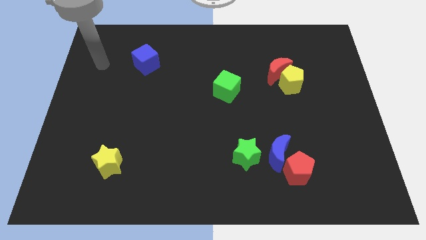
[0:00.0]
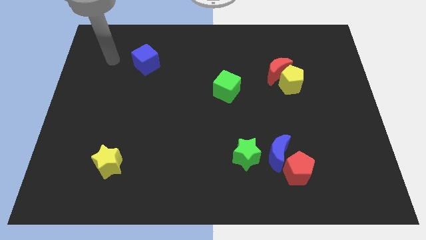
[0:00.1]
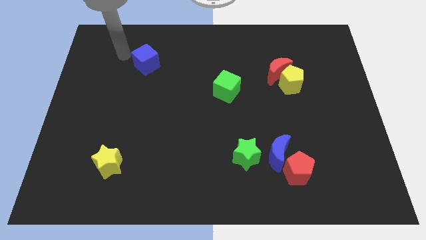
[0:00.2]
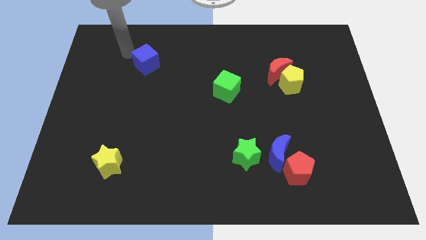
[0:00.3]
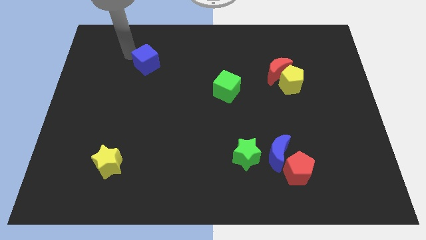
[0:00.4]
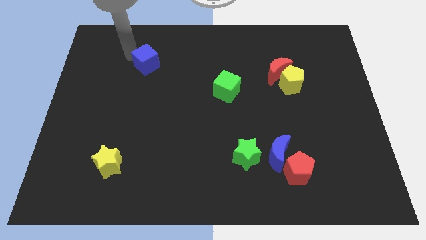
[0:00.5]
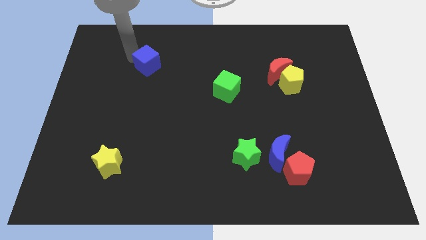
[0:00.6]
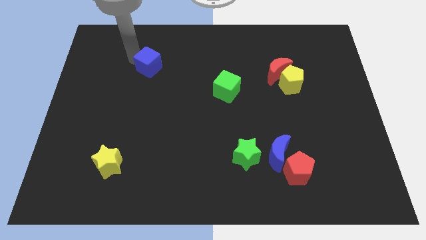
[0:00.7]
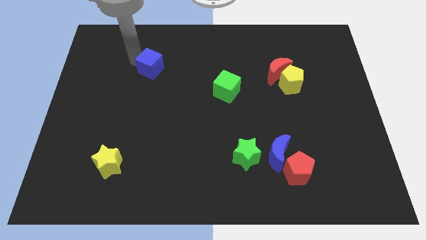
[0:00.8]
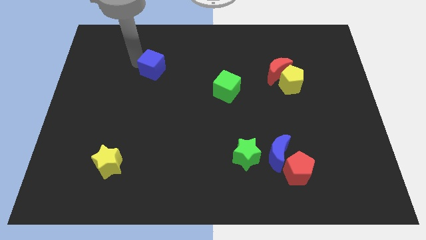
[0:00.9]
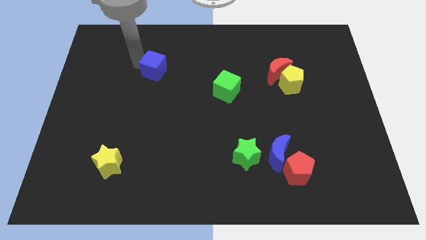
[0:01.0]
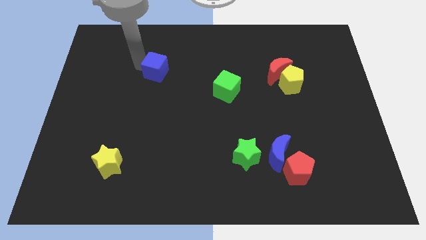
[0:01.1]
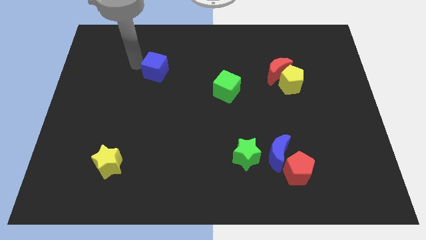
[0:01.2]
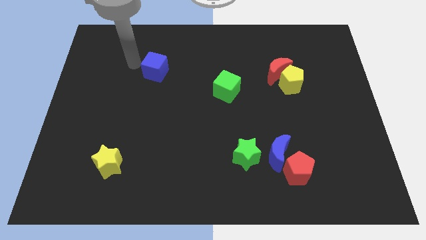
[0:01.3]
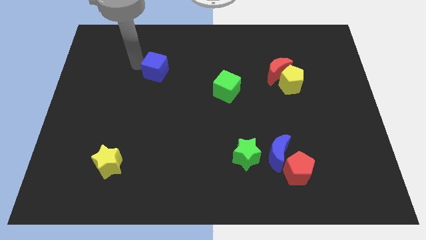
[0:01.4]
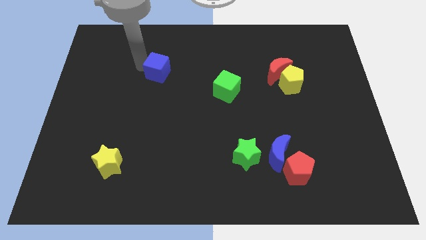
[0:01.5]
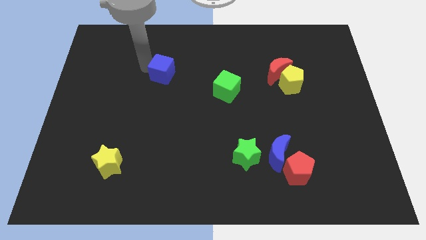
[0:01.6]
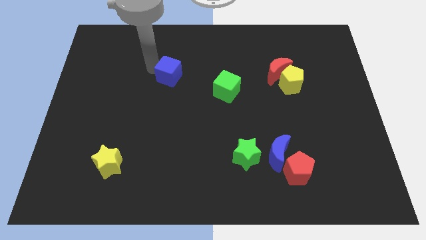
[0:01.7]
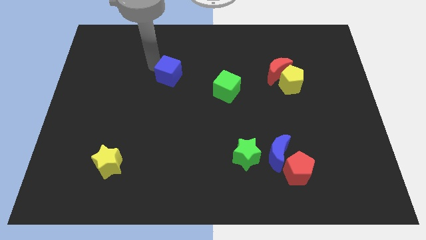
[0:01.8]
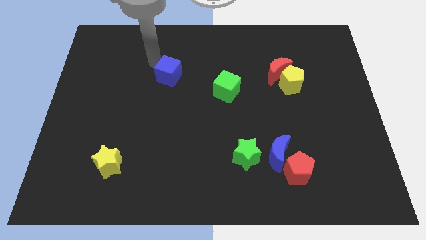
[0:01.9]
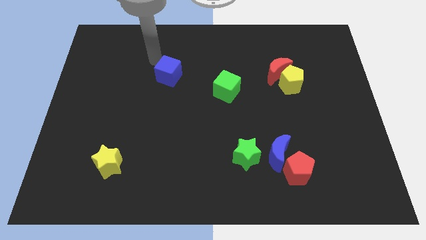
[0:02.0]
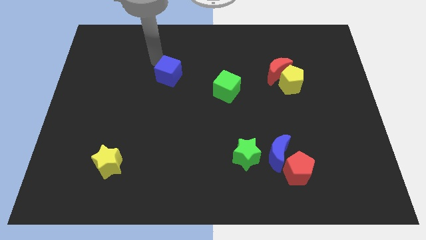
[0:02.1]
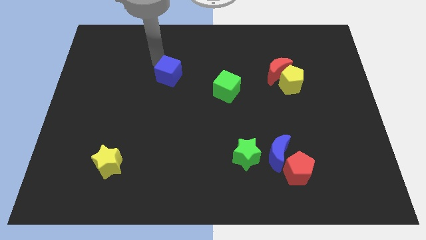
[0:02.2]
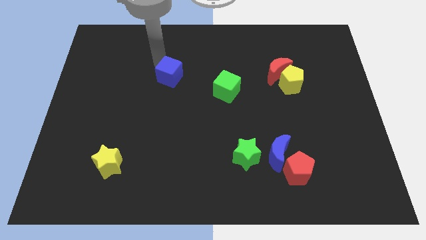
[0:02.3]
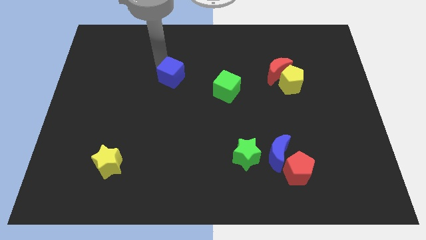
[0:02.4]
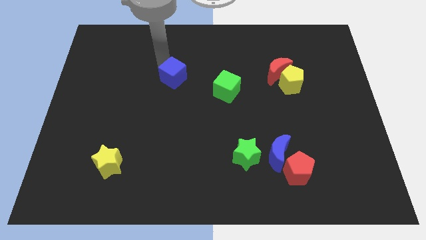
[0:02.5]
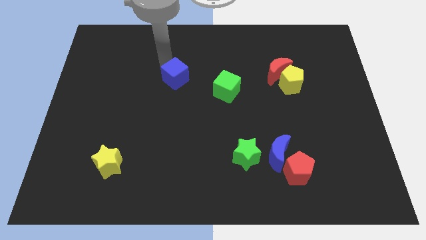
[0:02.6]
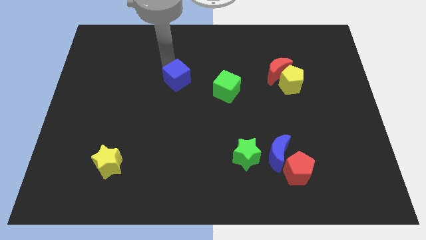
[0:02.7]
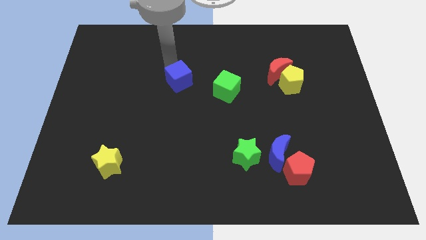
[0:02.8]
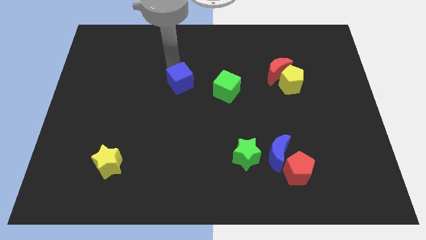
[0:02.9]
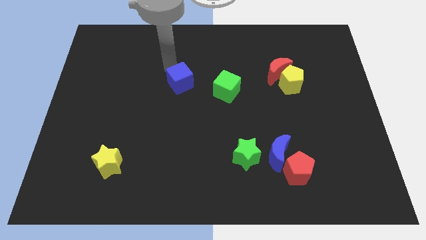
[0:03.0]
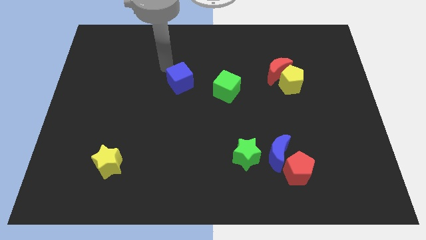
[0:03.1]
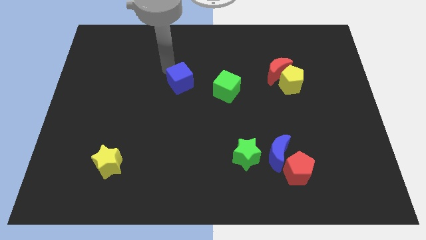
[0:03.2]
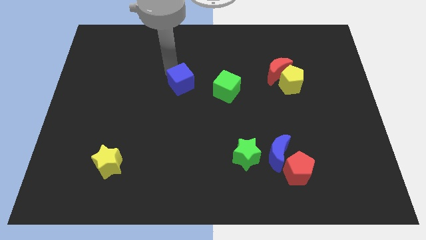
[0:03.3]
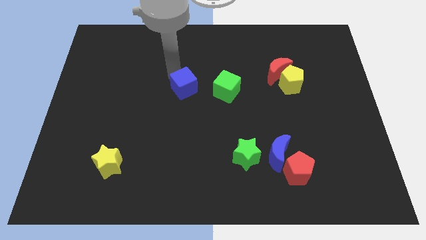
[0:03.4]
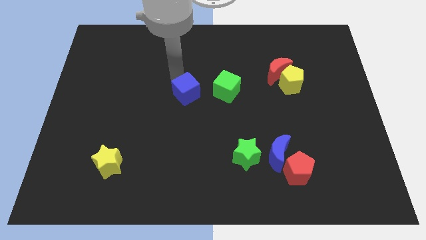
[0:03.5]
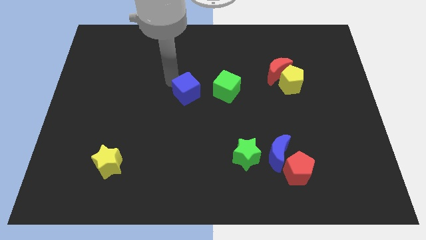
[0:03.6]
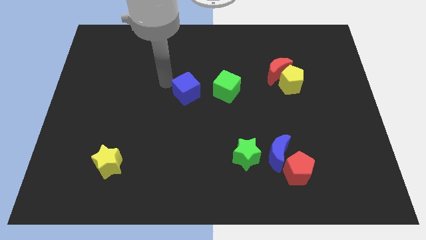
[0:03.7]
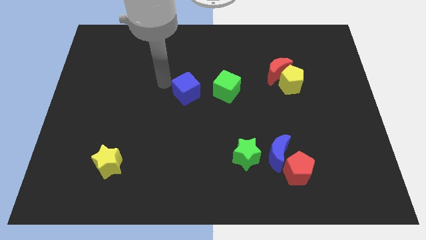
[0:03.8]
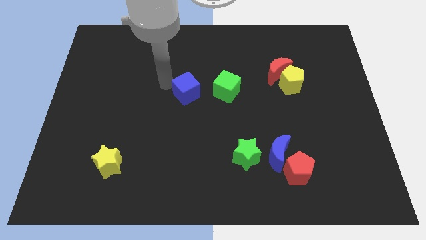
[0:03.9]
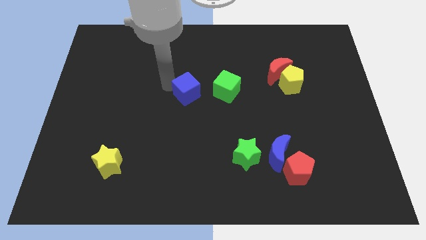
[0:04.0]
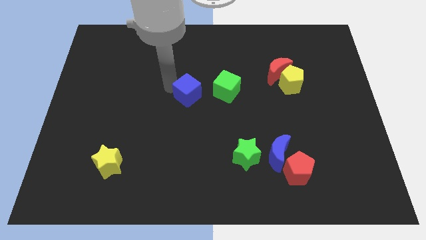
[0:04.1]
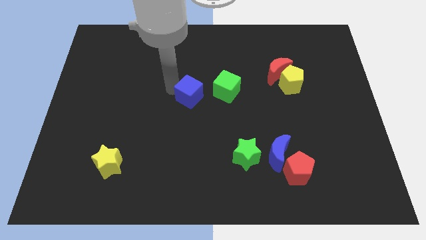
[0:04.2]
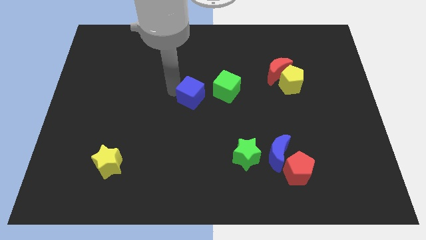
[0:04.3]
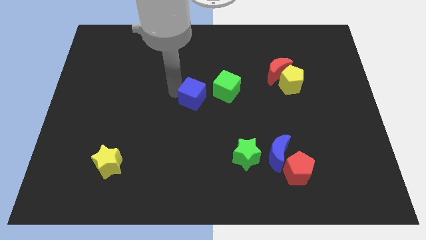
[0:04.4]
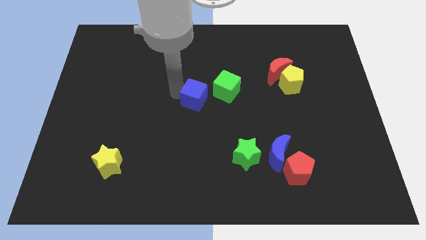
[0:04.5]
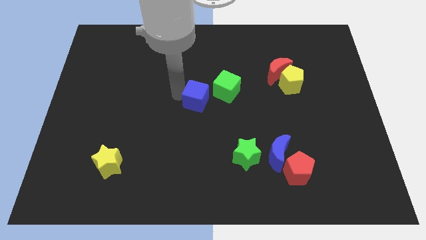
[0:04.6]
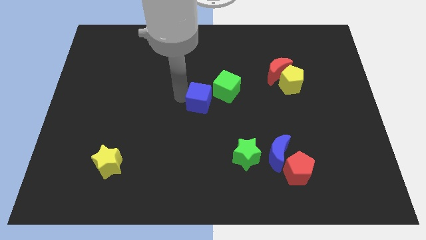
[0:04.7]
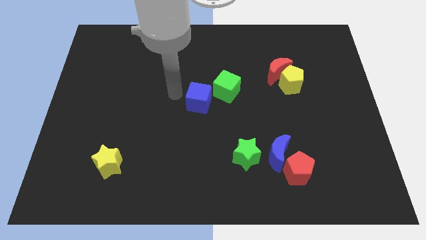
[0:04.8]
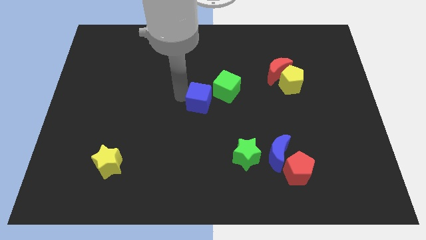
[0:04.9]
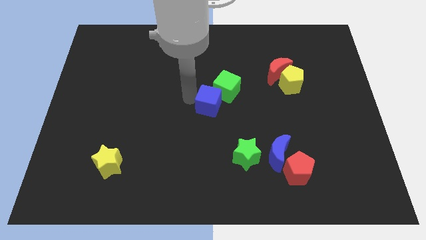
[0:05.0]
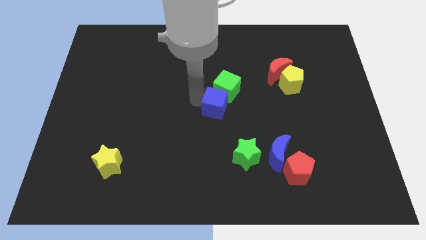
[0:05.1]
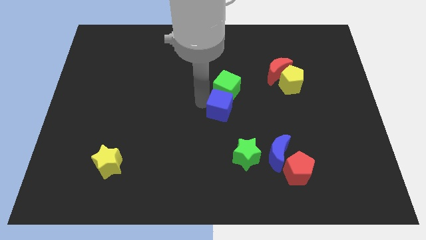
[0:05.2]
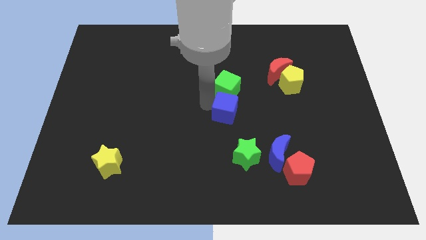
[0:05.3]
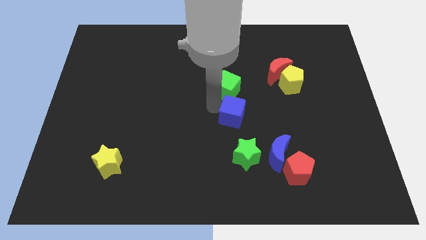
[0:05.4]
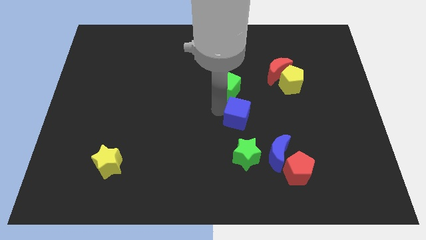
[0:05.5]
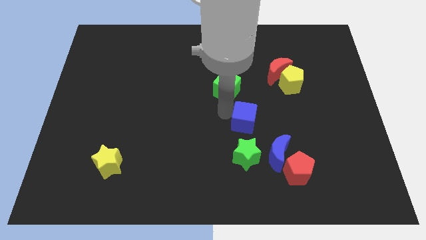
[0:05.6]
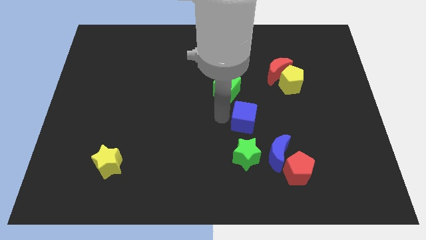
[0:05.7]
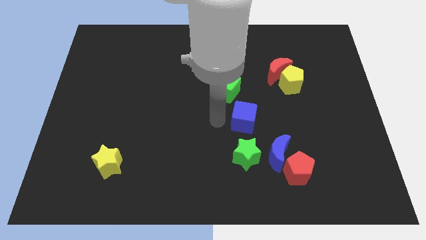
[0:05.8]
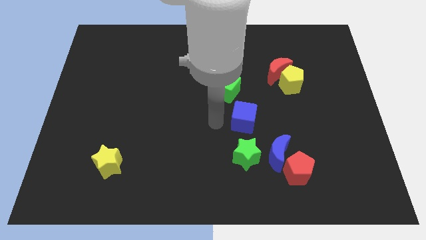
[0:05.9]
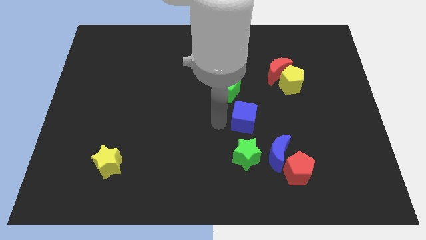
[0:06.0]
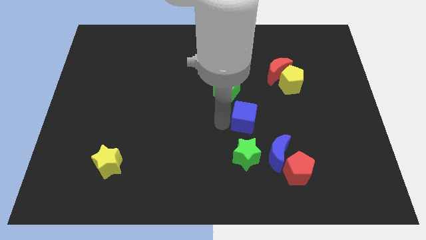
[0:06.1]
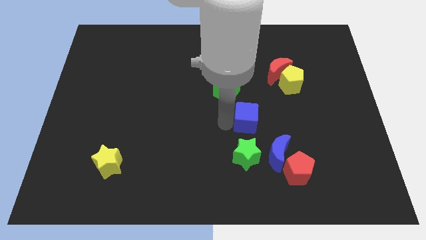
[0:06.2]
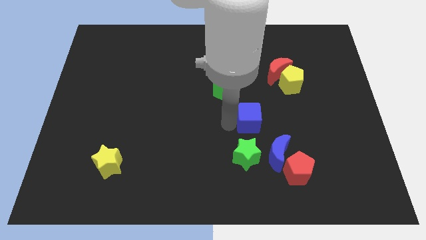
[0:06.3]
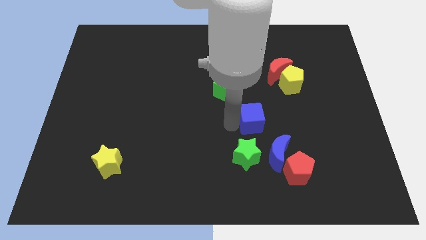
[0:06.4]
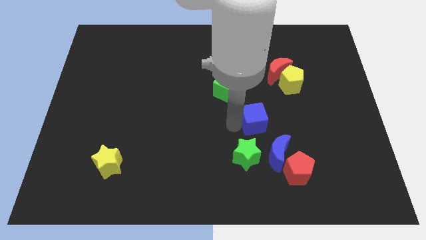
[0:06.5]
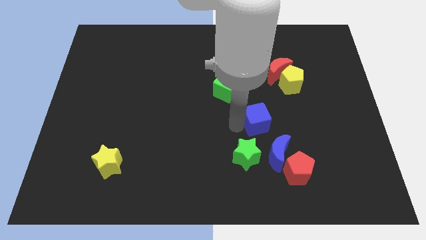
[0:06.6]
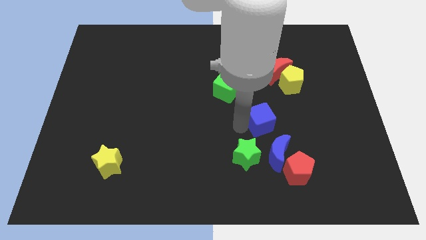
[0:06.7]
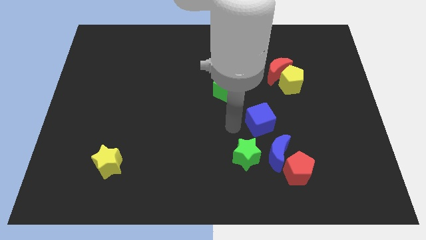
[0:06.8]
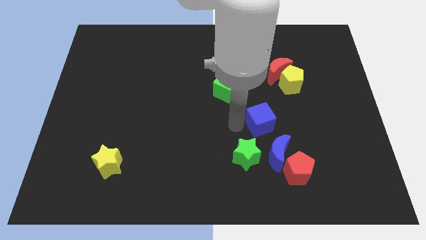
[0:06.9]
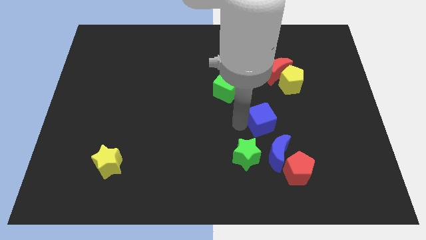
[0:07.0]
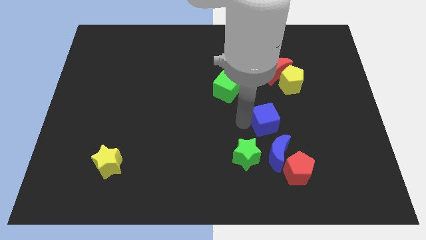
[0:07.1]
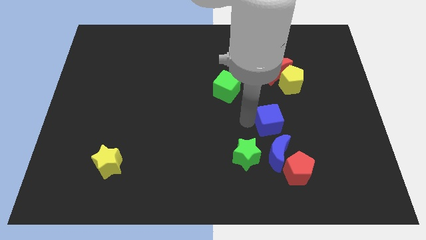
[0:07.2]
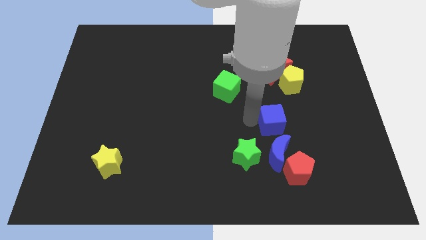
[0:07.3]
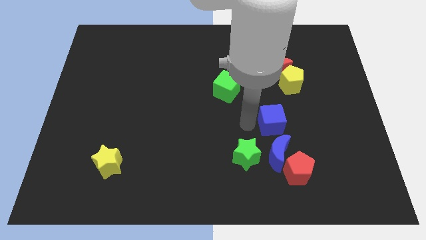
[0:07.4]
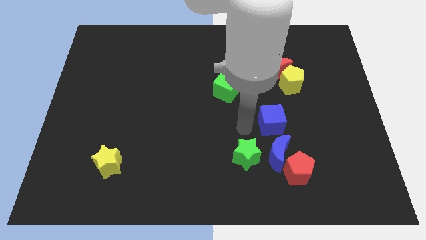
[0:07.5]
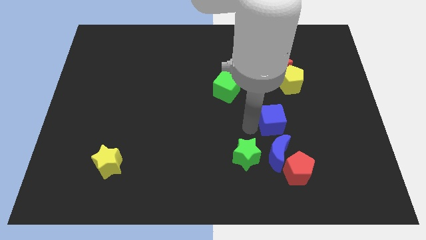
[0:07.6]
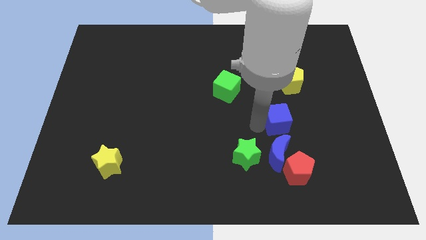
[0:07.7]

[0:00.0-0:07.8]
move the blue cube to the bottom of the yellow pentagon

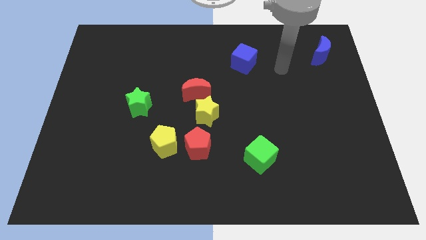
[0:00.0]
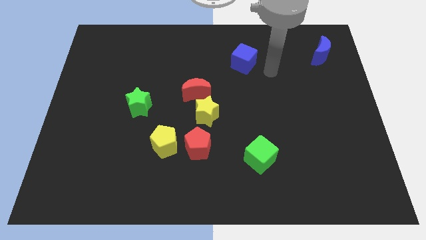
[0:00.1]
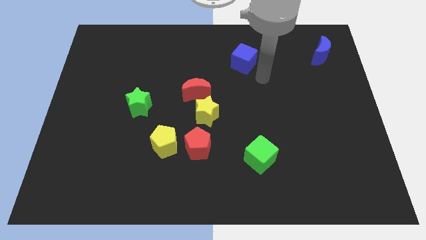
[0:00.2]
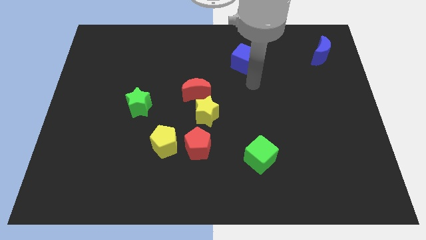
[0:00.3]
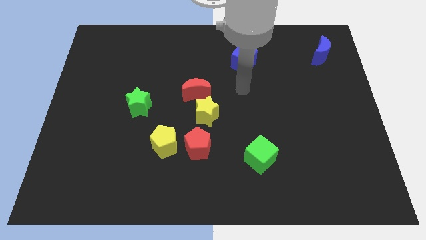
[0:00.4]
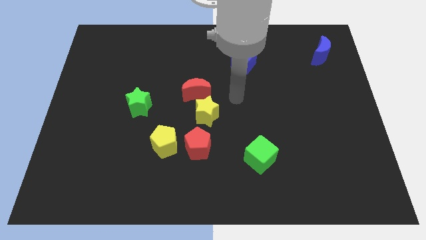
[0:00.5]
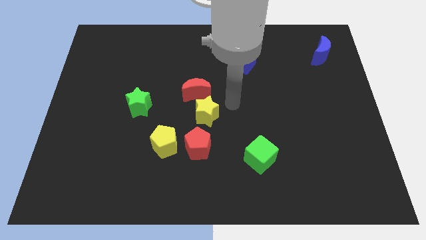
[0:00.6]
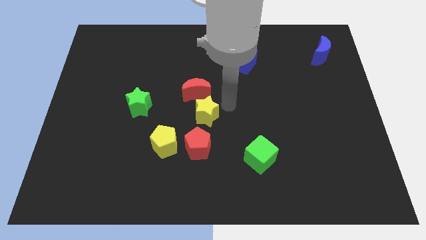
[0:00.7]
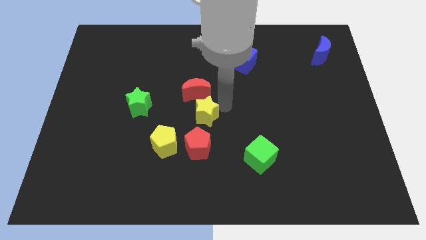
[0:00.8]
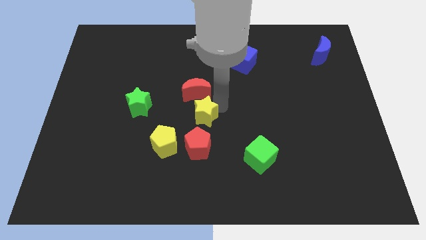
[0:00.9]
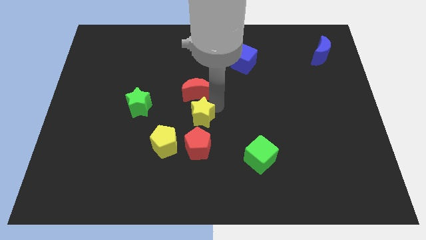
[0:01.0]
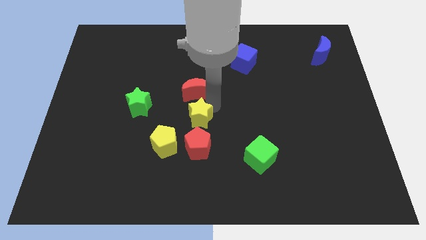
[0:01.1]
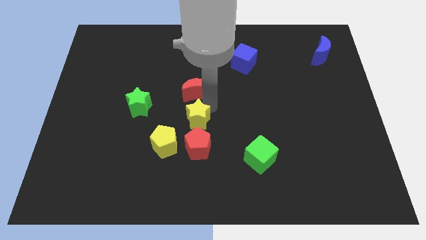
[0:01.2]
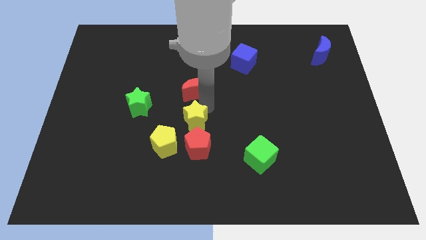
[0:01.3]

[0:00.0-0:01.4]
slide the yellow star diagonally up and to the left of the red pentagon
